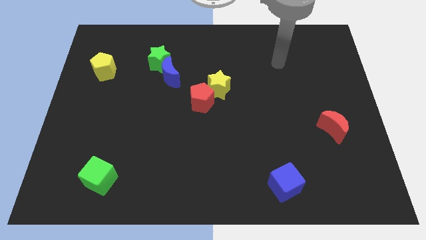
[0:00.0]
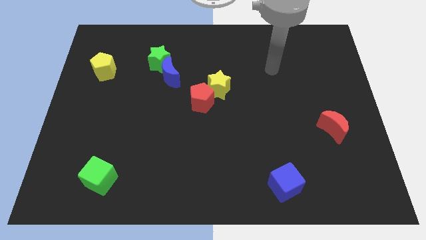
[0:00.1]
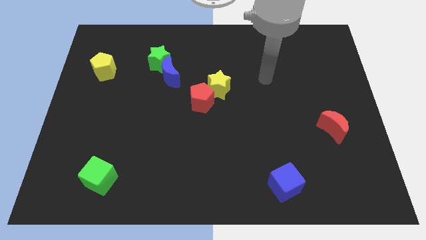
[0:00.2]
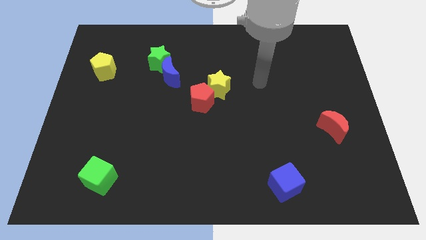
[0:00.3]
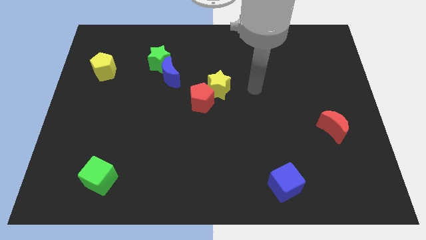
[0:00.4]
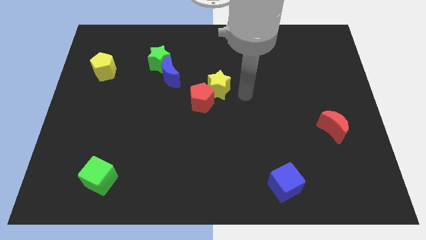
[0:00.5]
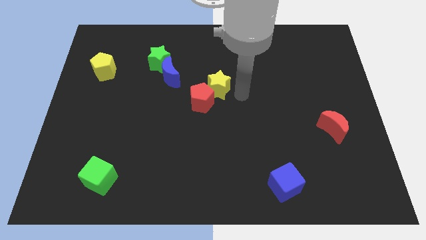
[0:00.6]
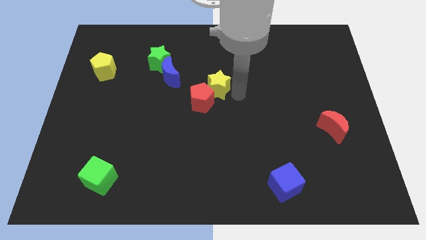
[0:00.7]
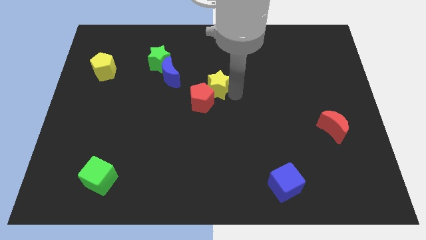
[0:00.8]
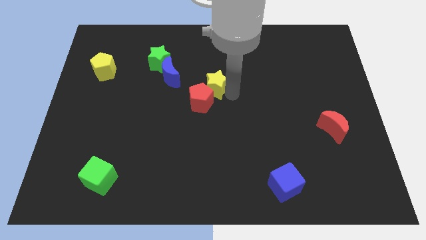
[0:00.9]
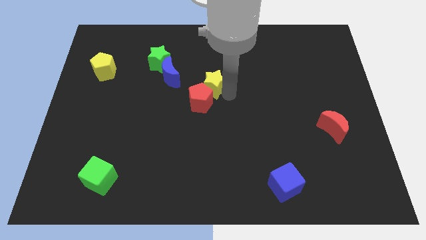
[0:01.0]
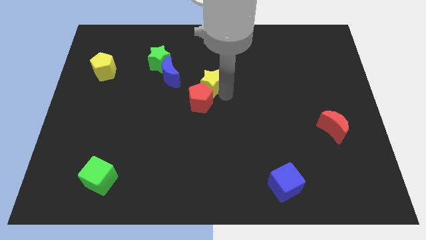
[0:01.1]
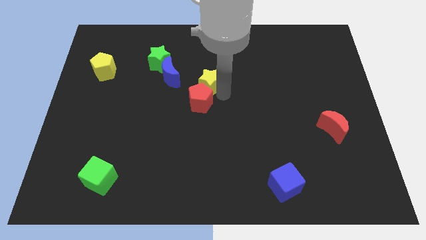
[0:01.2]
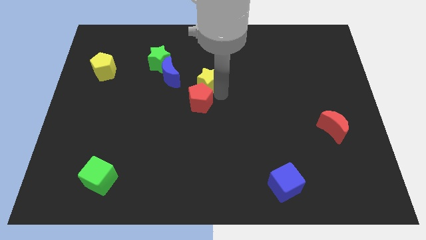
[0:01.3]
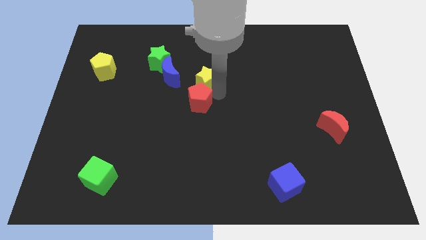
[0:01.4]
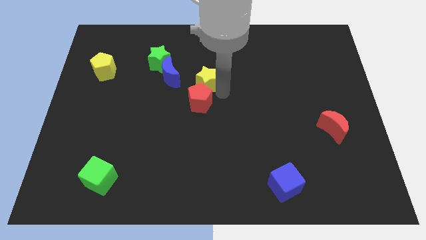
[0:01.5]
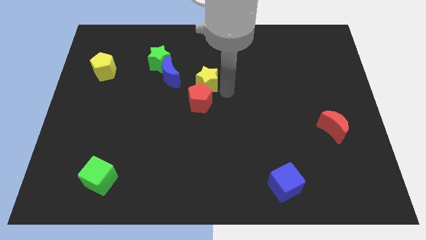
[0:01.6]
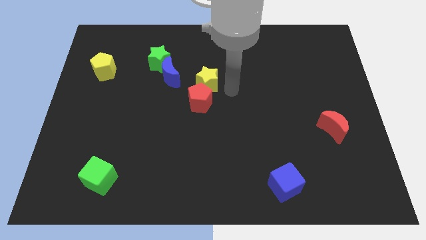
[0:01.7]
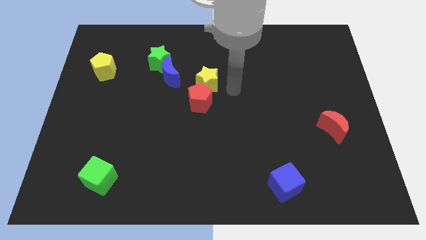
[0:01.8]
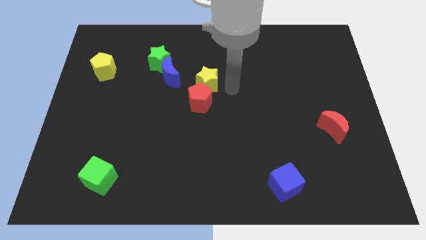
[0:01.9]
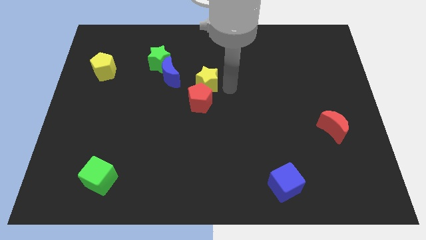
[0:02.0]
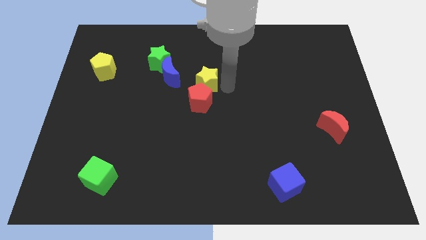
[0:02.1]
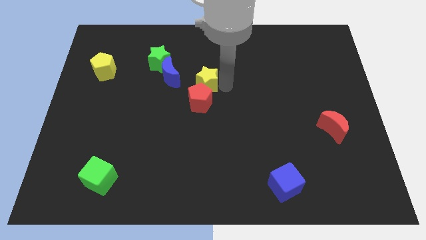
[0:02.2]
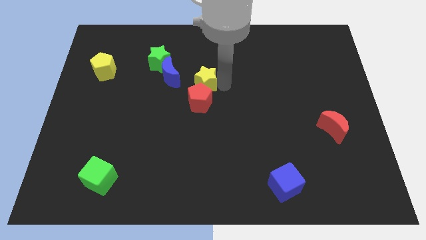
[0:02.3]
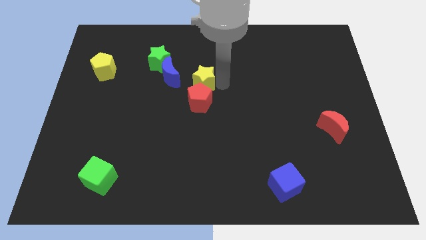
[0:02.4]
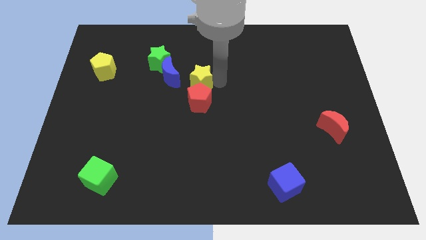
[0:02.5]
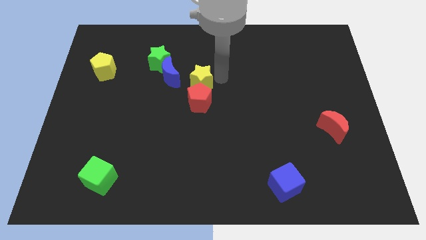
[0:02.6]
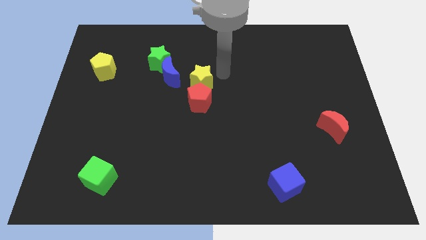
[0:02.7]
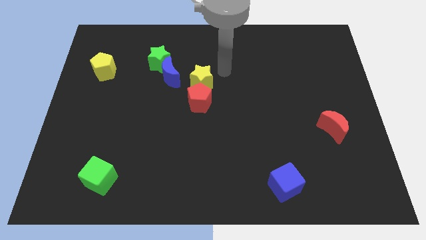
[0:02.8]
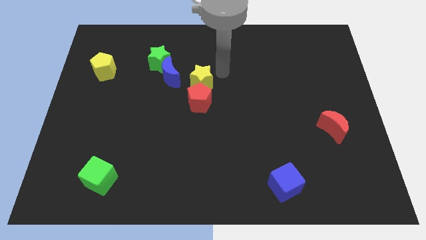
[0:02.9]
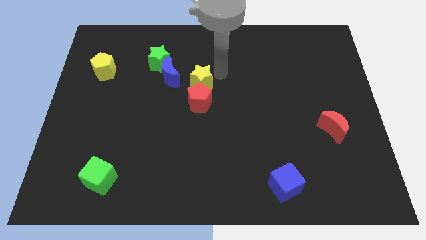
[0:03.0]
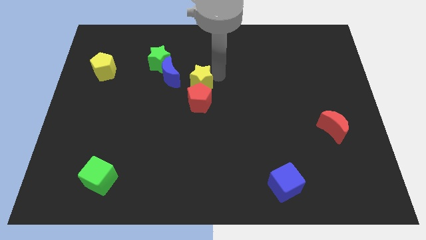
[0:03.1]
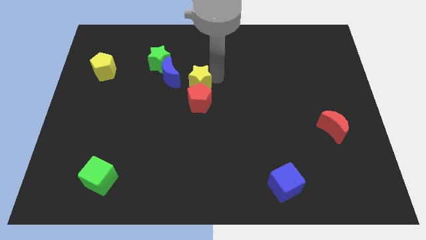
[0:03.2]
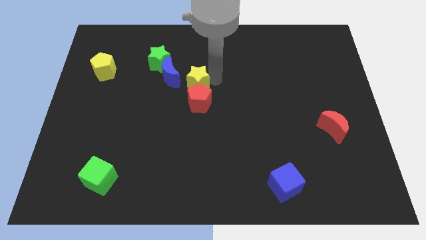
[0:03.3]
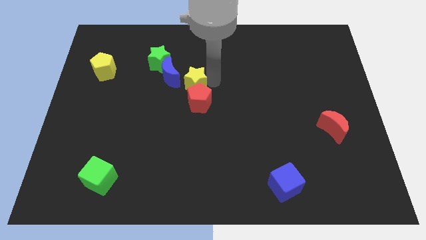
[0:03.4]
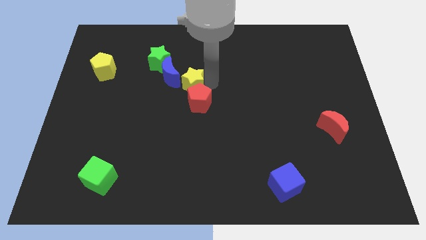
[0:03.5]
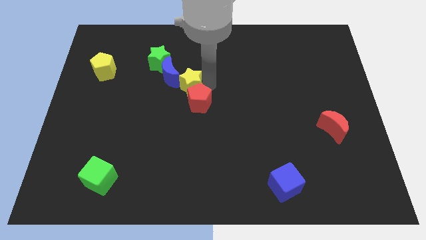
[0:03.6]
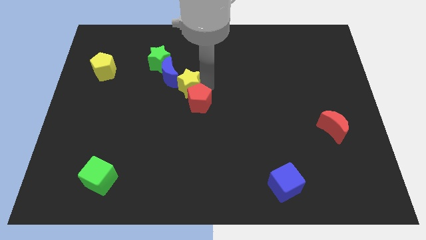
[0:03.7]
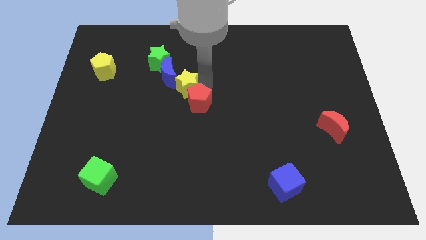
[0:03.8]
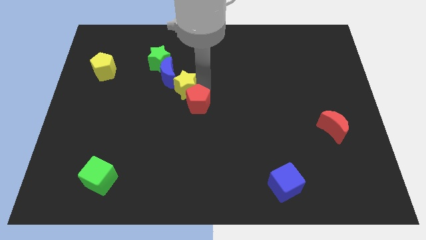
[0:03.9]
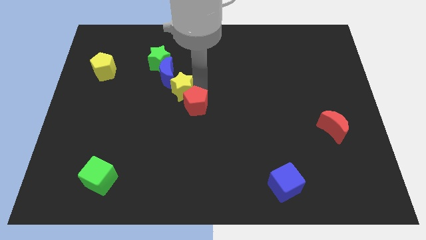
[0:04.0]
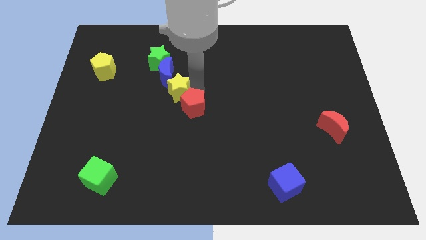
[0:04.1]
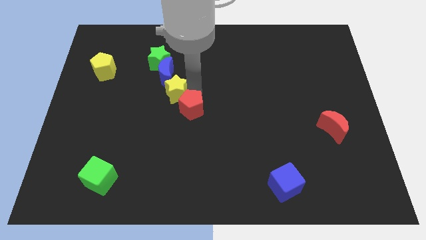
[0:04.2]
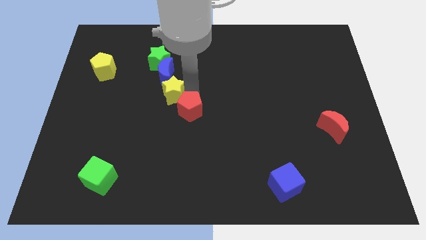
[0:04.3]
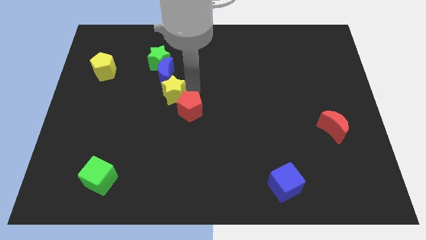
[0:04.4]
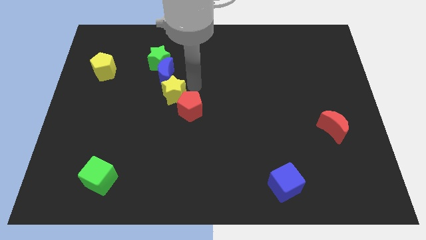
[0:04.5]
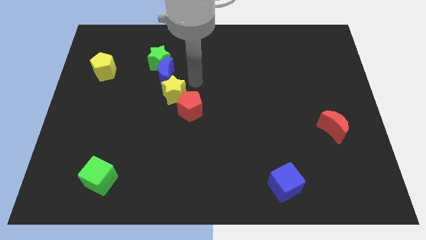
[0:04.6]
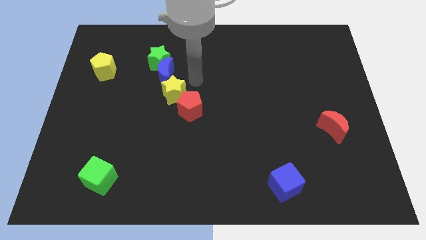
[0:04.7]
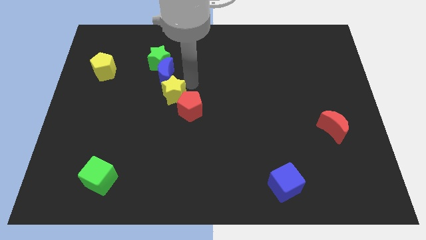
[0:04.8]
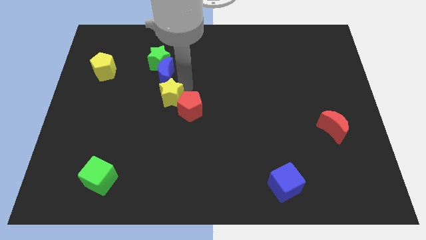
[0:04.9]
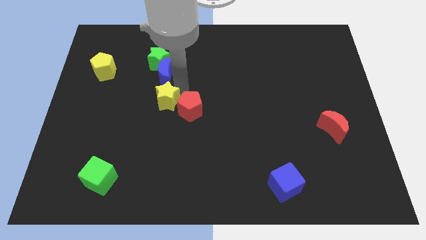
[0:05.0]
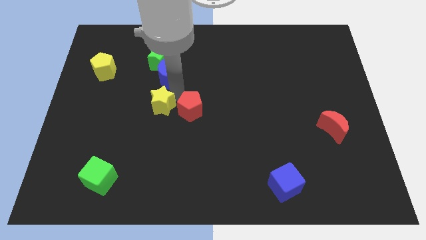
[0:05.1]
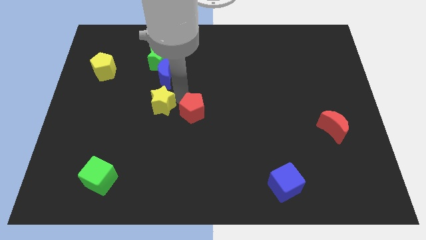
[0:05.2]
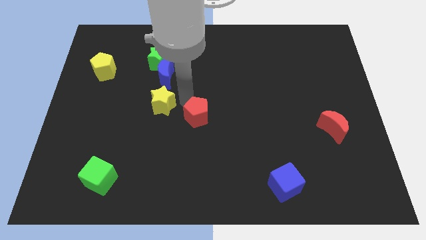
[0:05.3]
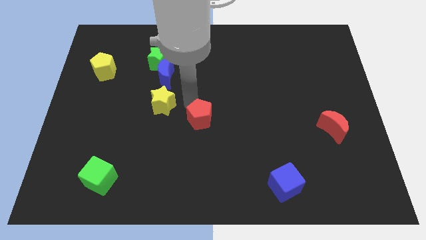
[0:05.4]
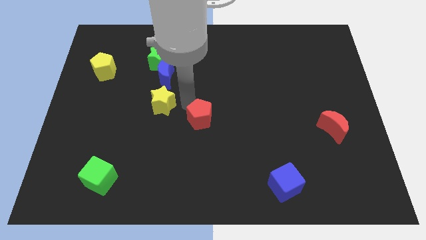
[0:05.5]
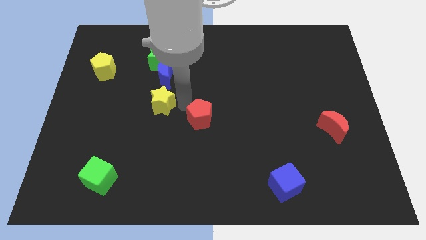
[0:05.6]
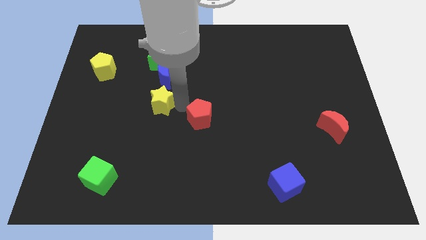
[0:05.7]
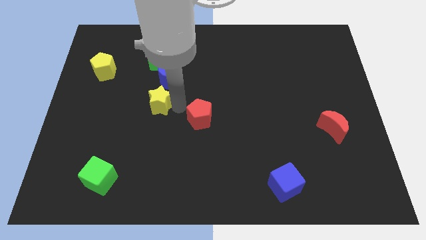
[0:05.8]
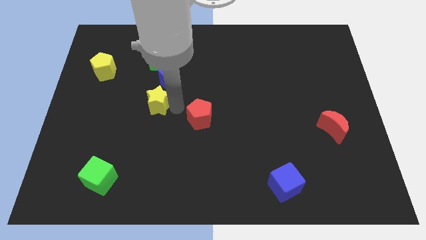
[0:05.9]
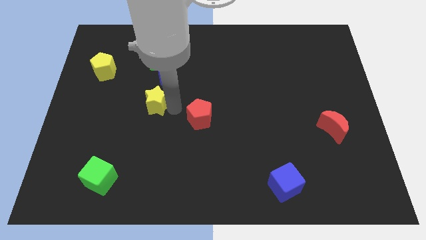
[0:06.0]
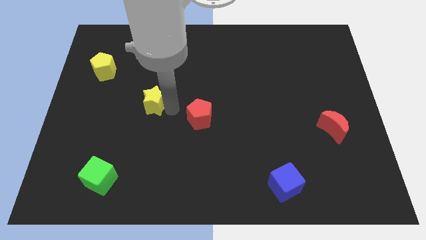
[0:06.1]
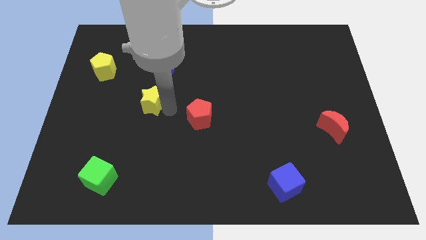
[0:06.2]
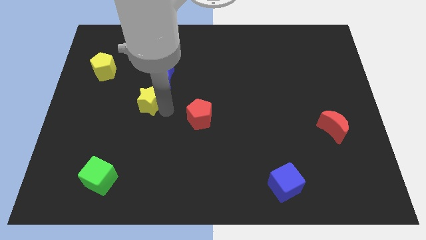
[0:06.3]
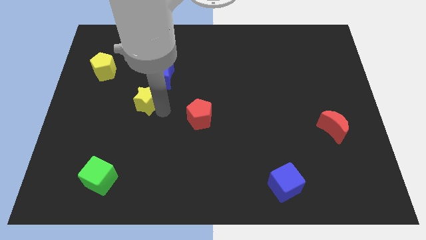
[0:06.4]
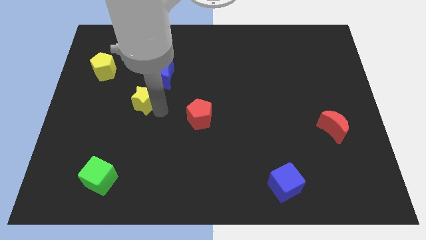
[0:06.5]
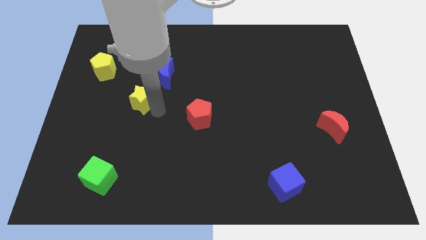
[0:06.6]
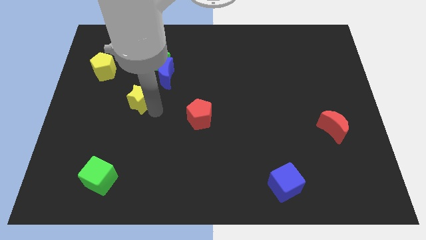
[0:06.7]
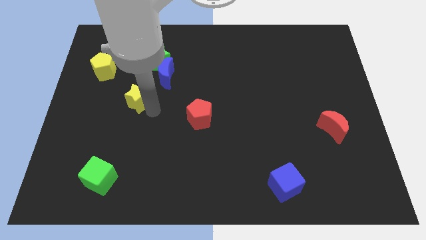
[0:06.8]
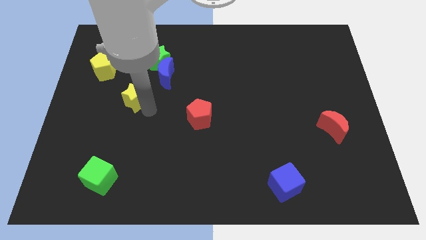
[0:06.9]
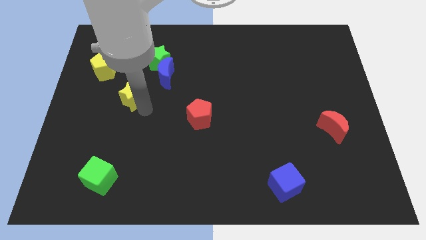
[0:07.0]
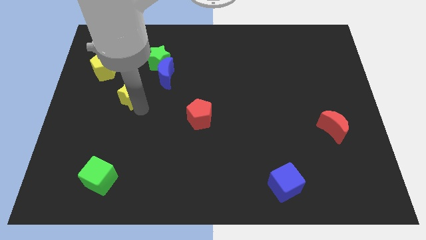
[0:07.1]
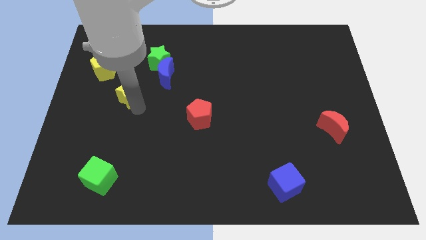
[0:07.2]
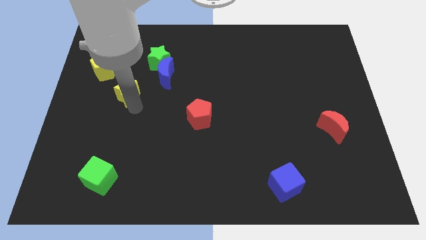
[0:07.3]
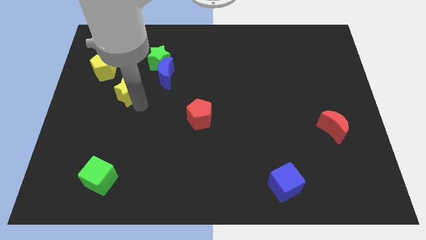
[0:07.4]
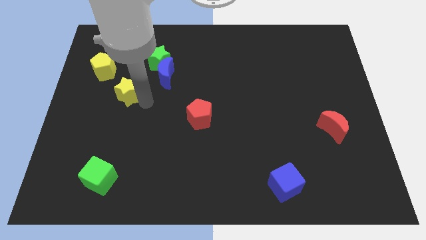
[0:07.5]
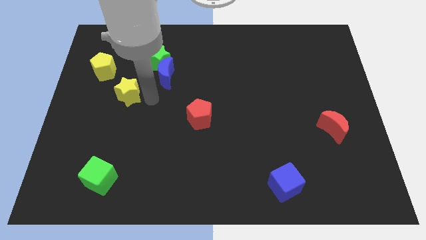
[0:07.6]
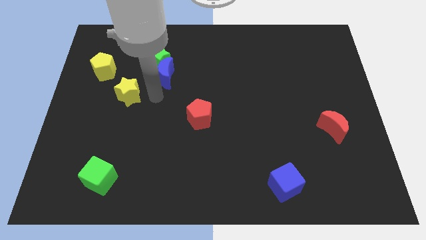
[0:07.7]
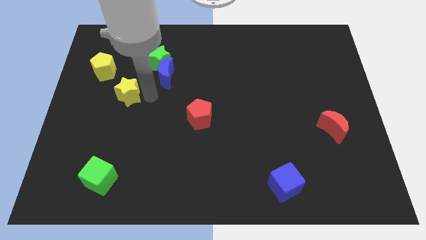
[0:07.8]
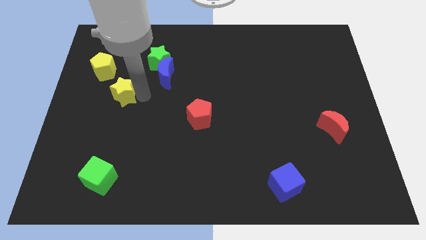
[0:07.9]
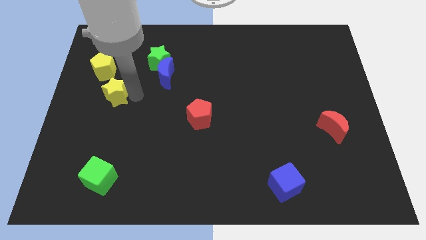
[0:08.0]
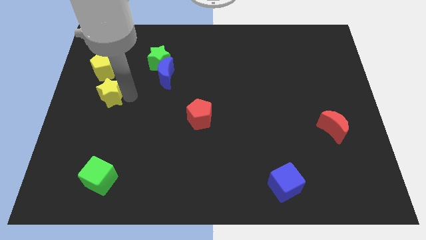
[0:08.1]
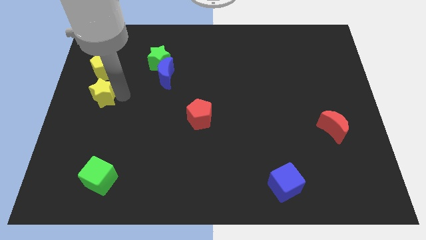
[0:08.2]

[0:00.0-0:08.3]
put the yellow star to the left side of the board
